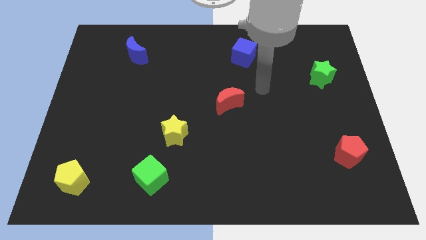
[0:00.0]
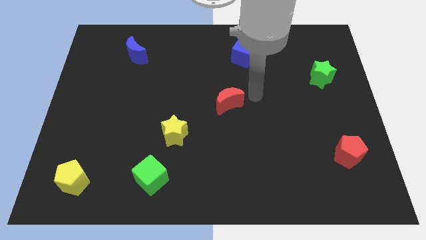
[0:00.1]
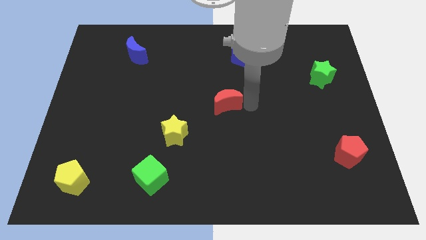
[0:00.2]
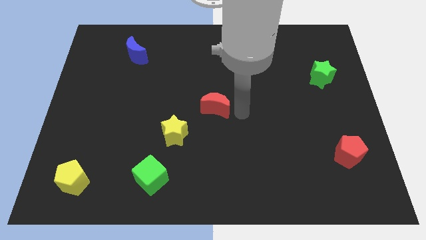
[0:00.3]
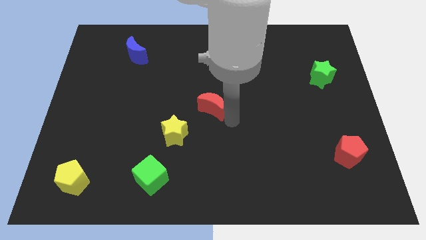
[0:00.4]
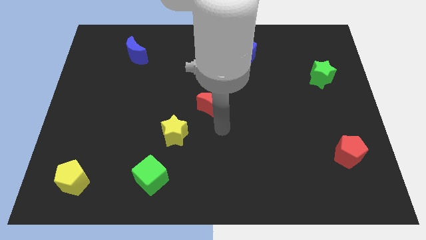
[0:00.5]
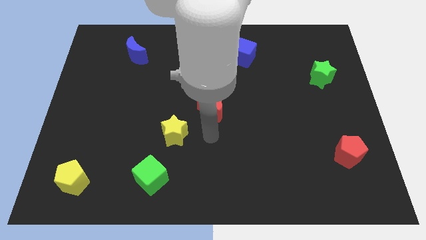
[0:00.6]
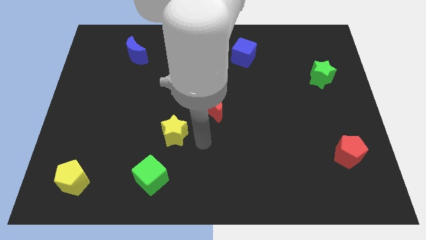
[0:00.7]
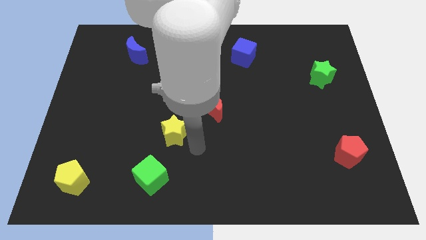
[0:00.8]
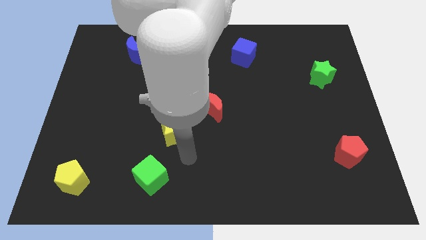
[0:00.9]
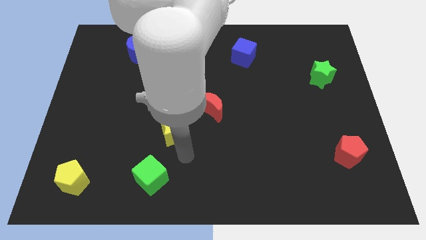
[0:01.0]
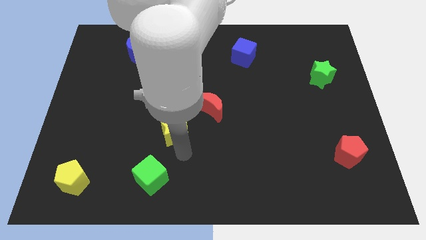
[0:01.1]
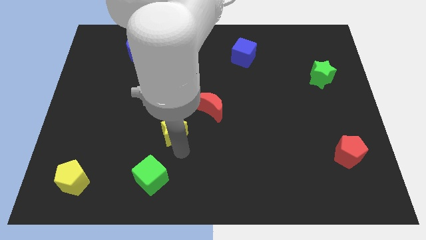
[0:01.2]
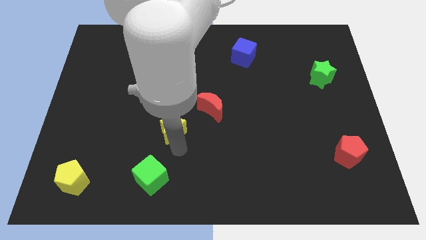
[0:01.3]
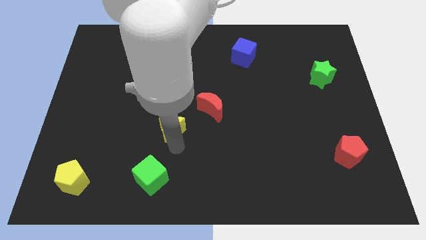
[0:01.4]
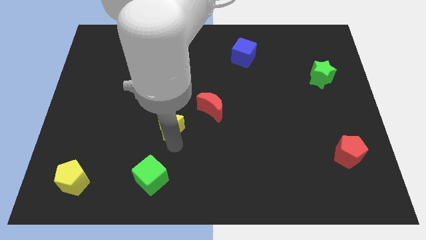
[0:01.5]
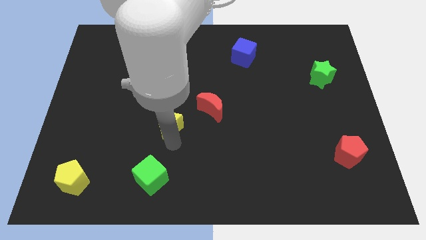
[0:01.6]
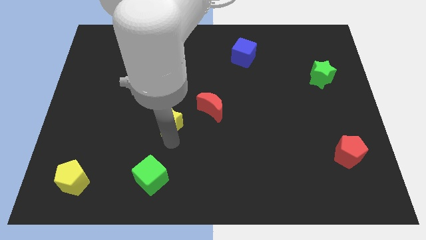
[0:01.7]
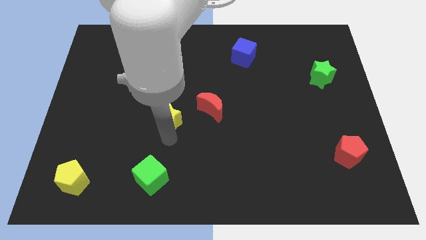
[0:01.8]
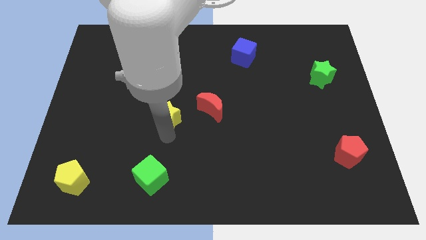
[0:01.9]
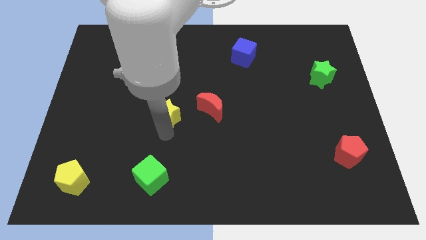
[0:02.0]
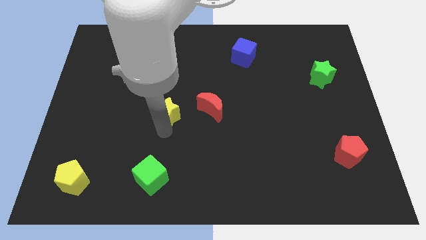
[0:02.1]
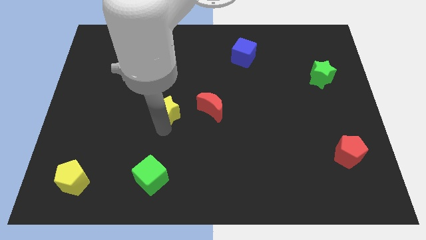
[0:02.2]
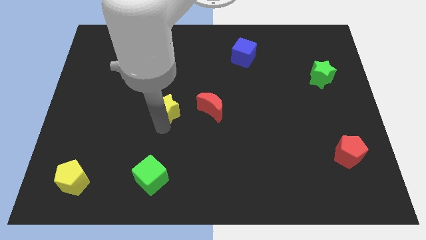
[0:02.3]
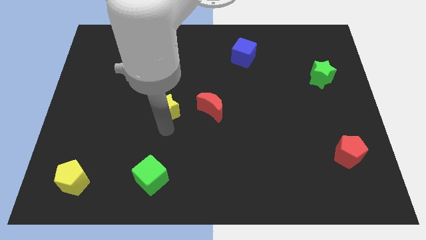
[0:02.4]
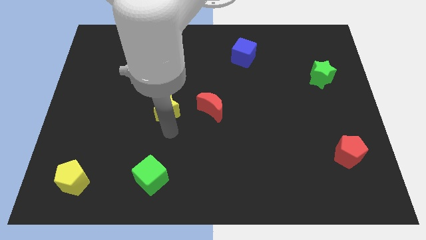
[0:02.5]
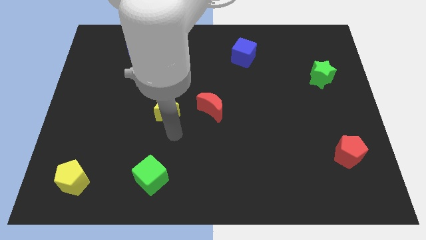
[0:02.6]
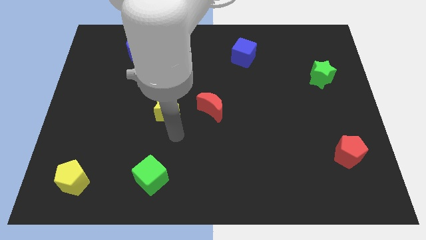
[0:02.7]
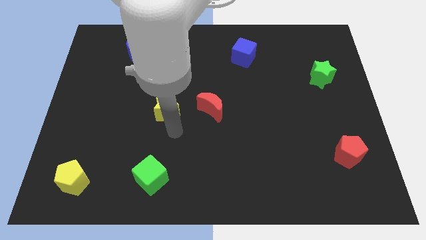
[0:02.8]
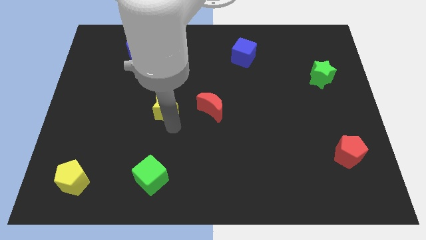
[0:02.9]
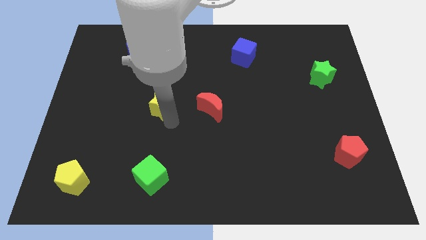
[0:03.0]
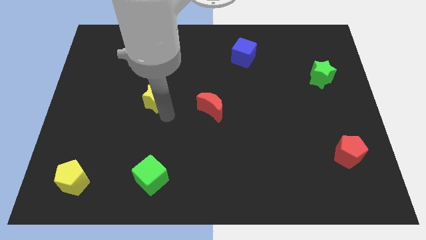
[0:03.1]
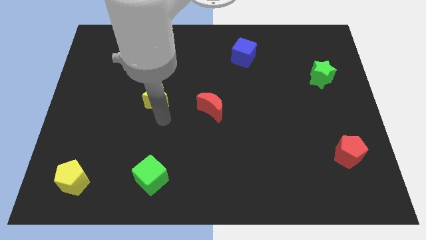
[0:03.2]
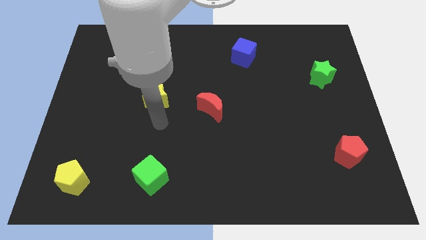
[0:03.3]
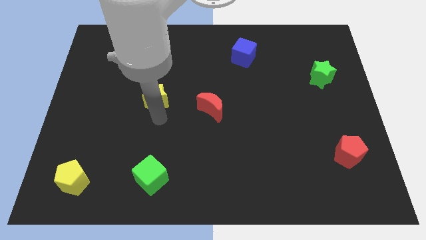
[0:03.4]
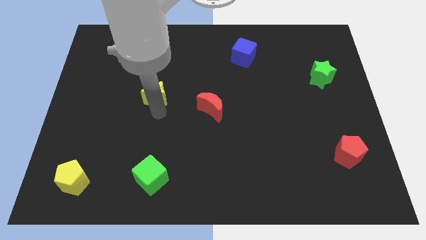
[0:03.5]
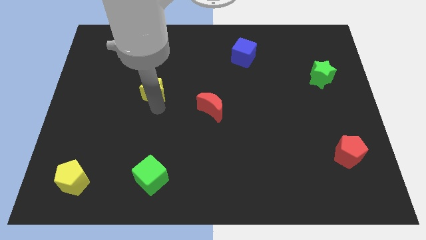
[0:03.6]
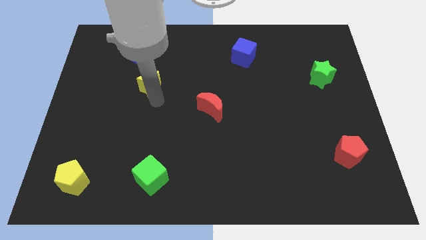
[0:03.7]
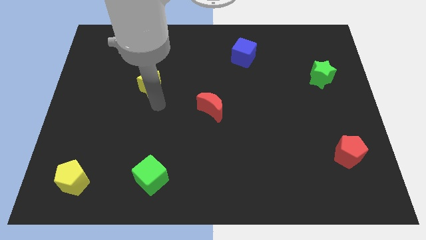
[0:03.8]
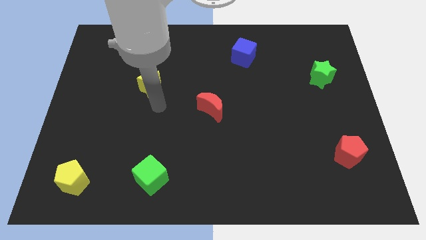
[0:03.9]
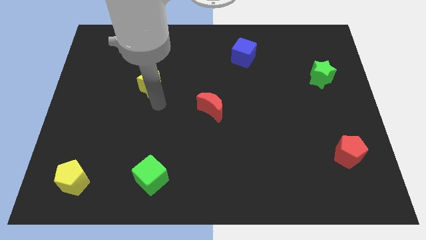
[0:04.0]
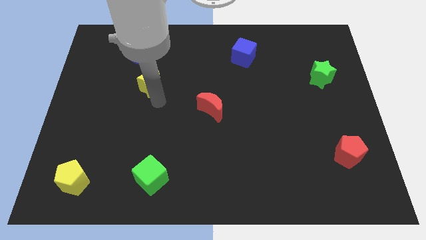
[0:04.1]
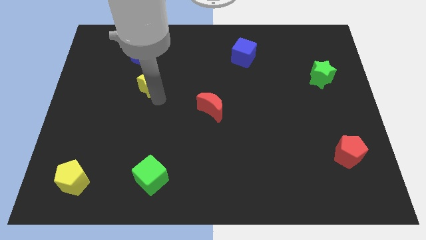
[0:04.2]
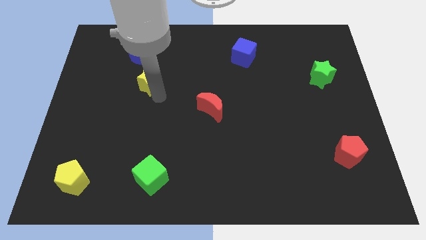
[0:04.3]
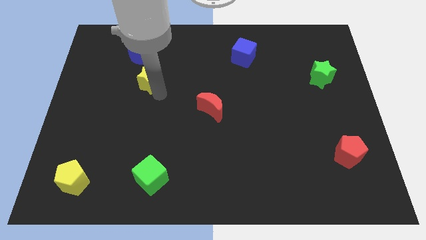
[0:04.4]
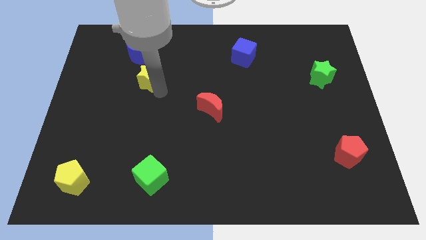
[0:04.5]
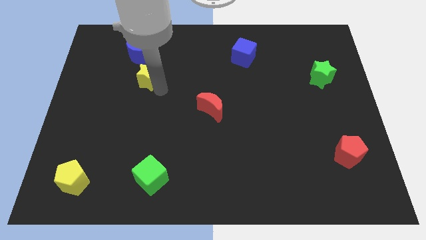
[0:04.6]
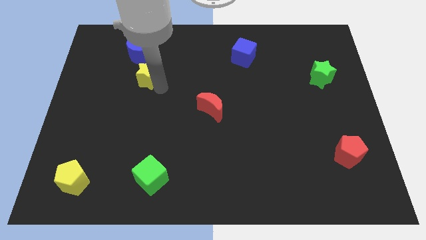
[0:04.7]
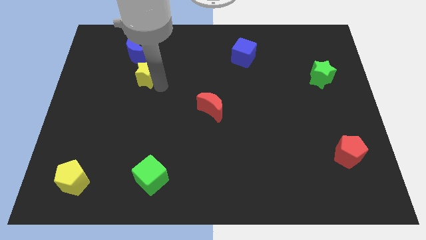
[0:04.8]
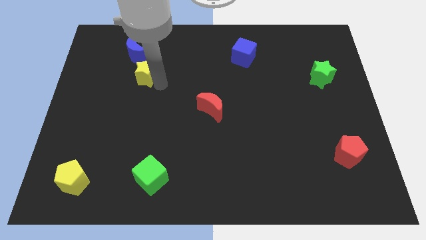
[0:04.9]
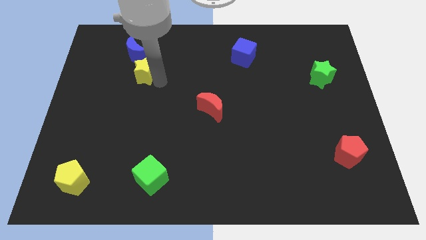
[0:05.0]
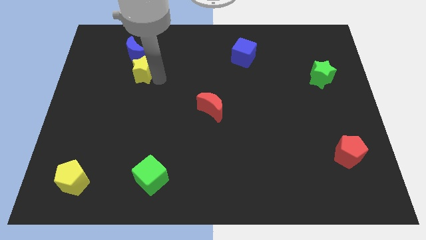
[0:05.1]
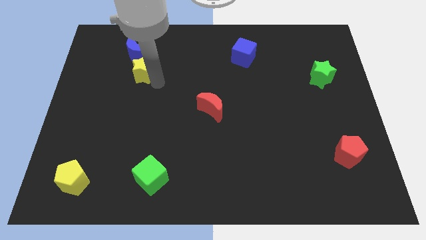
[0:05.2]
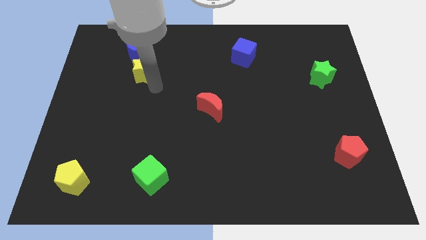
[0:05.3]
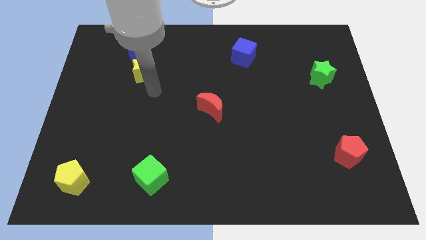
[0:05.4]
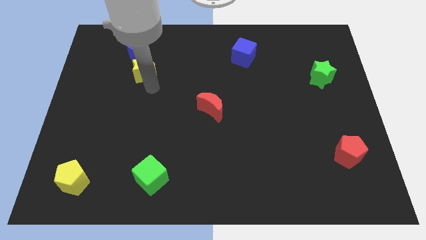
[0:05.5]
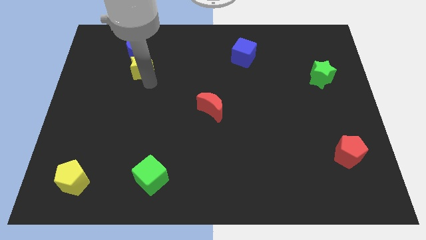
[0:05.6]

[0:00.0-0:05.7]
slide the yellow star towards the blue moon

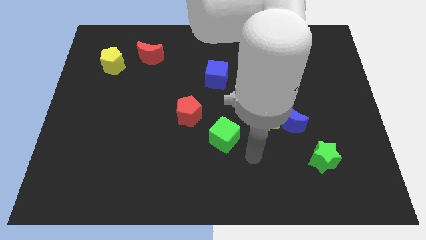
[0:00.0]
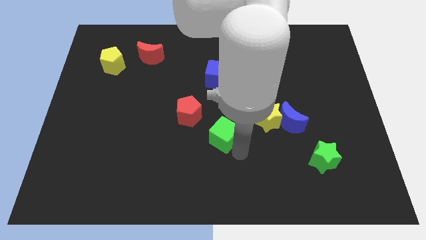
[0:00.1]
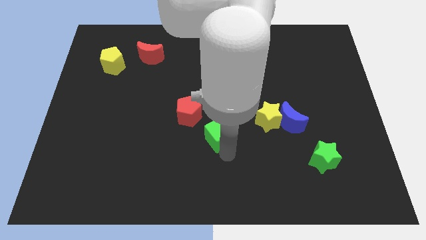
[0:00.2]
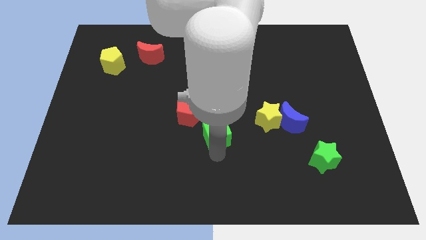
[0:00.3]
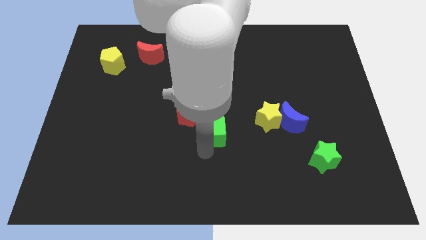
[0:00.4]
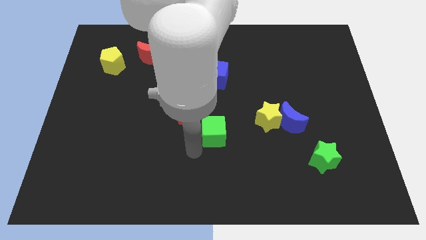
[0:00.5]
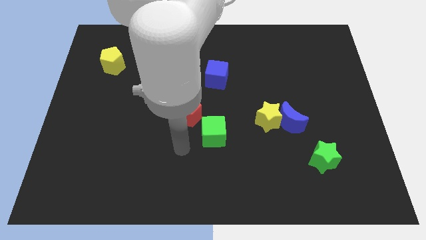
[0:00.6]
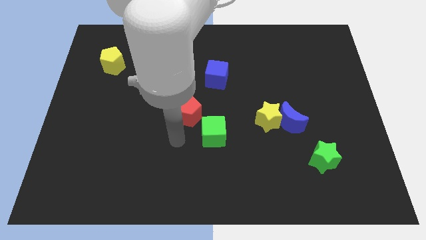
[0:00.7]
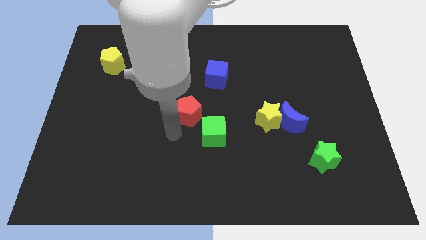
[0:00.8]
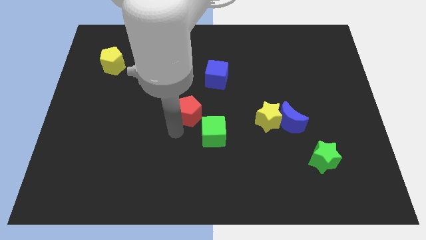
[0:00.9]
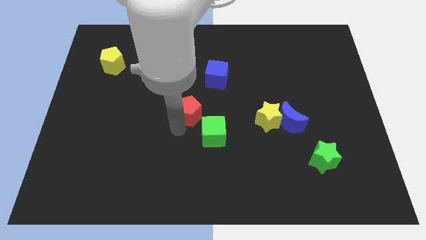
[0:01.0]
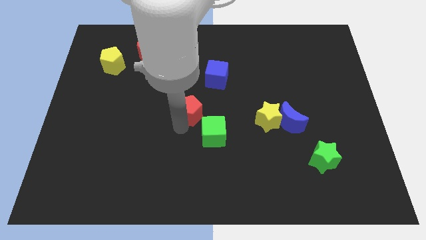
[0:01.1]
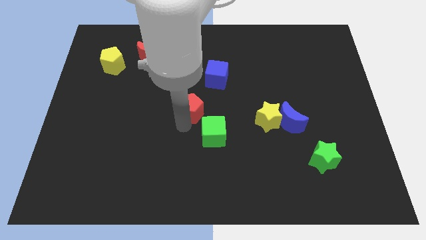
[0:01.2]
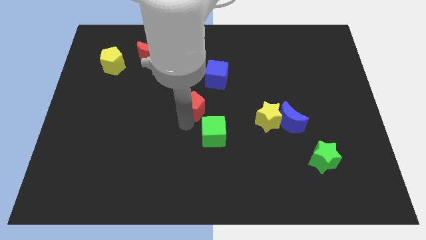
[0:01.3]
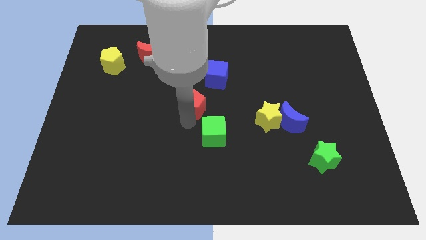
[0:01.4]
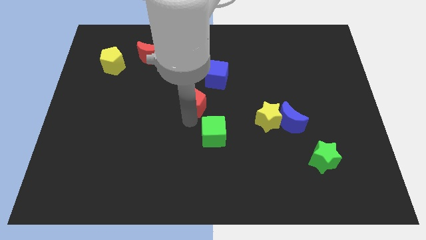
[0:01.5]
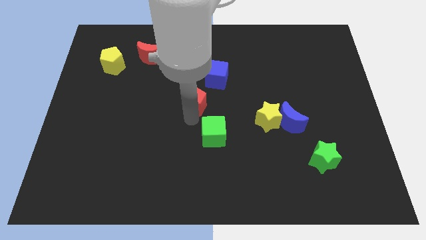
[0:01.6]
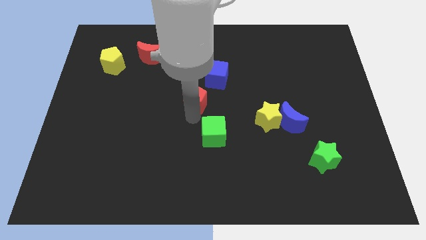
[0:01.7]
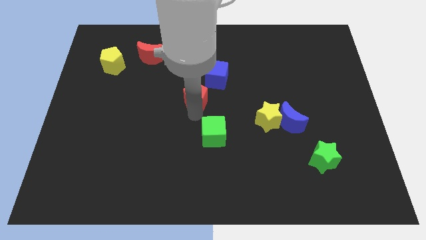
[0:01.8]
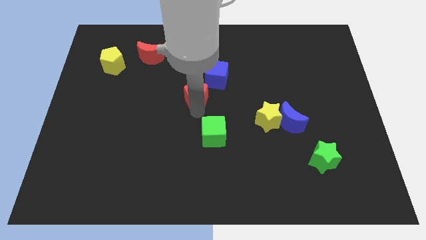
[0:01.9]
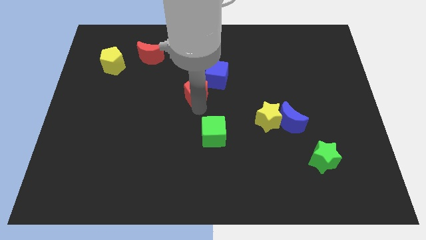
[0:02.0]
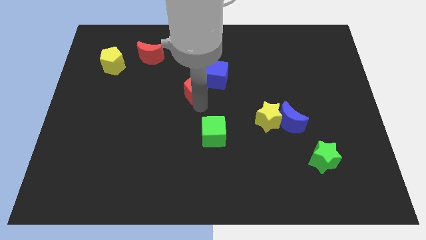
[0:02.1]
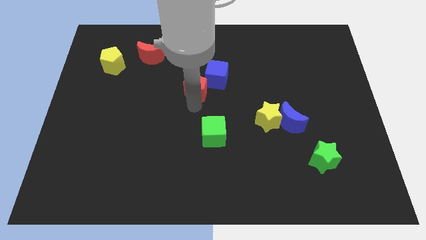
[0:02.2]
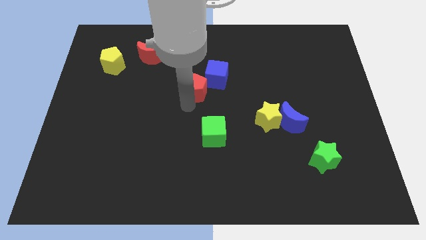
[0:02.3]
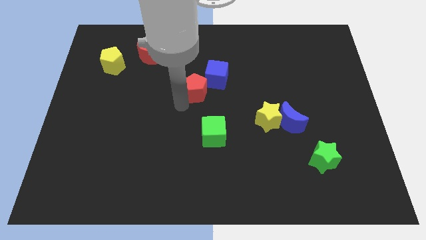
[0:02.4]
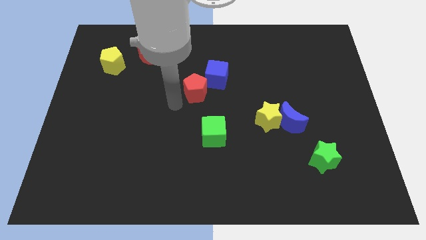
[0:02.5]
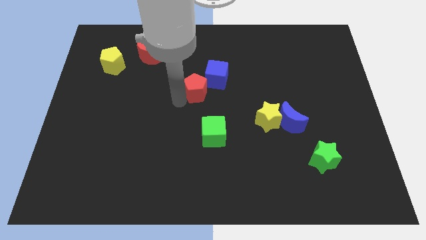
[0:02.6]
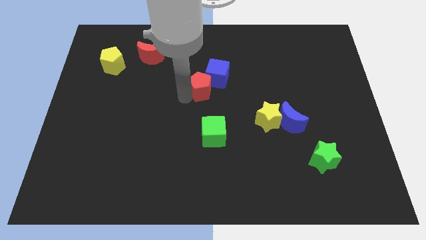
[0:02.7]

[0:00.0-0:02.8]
put the red pentagon to the blue cube
